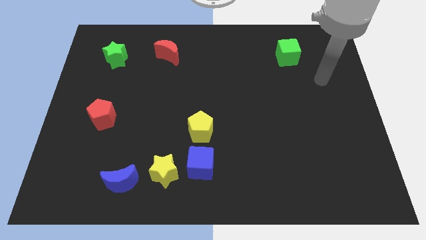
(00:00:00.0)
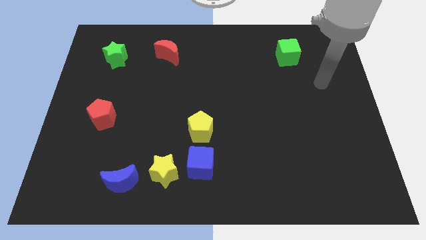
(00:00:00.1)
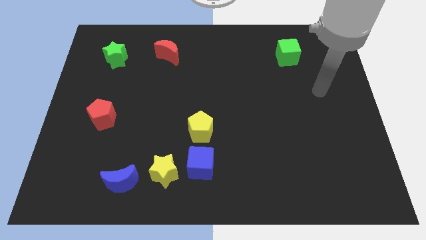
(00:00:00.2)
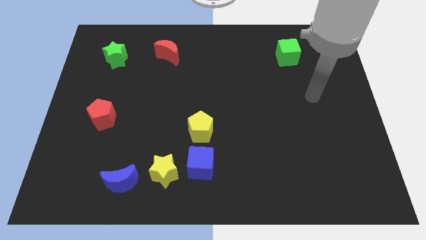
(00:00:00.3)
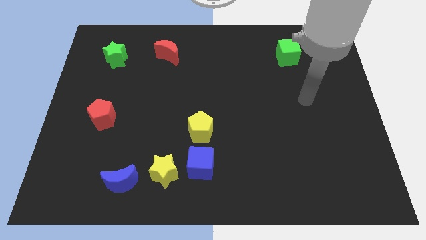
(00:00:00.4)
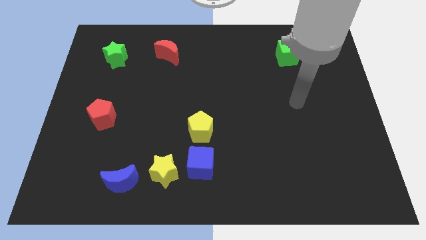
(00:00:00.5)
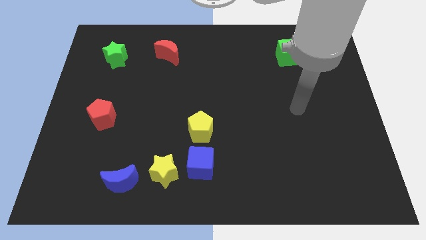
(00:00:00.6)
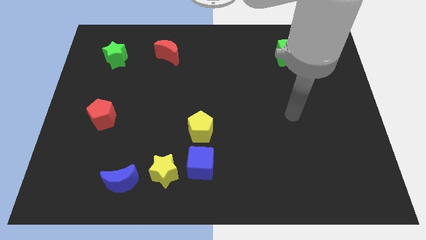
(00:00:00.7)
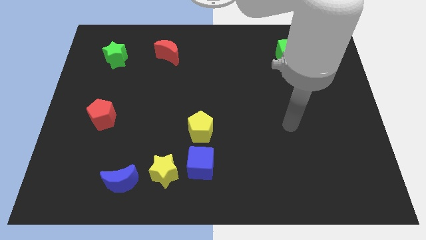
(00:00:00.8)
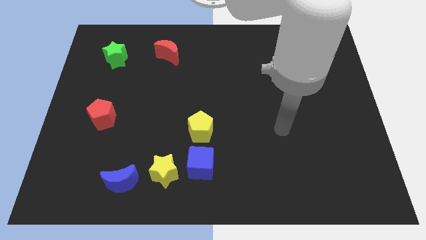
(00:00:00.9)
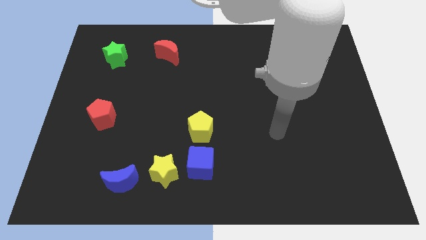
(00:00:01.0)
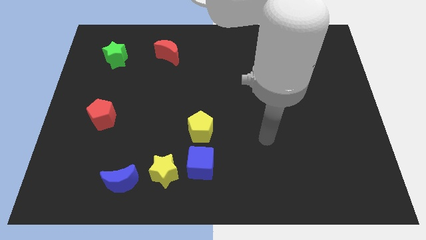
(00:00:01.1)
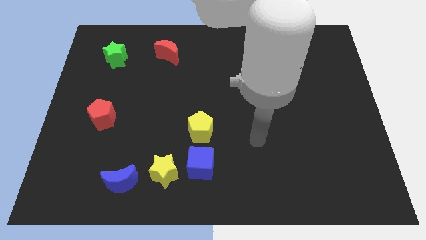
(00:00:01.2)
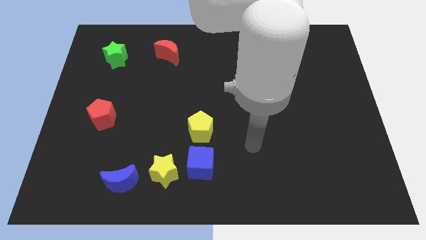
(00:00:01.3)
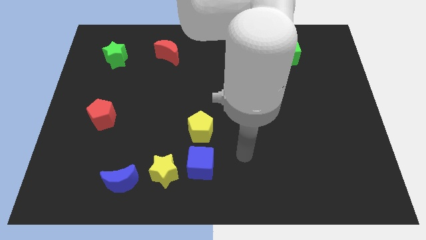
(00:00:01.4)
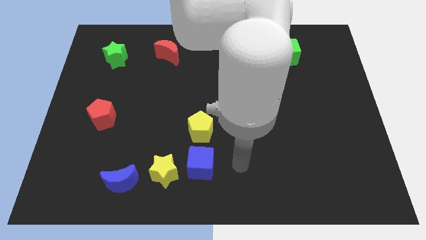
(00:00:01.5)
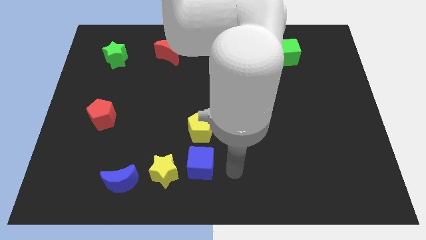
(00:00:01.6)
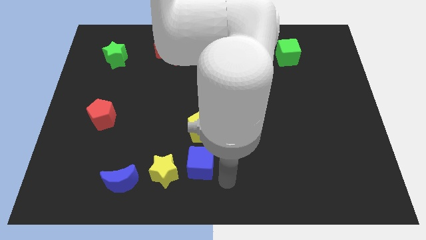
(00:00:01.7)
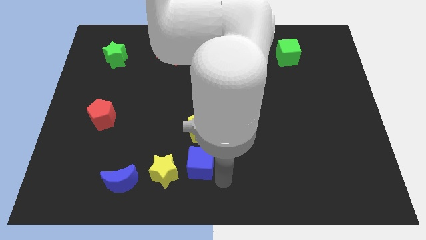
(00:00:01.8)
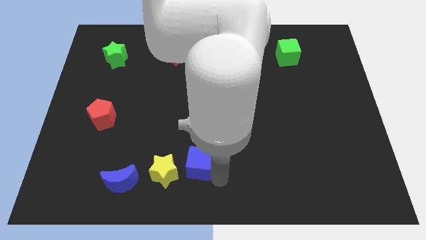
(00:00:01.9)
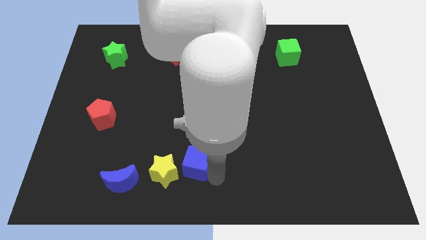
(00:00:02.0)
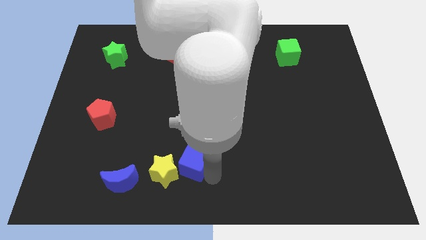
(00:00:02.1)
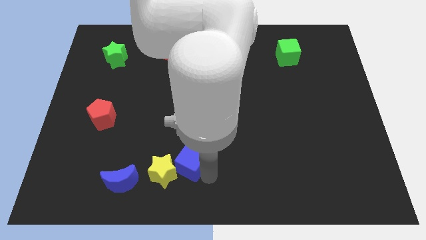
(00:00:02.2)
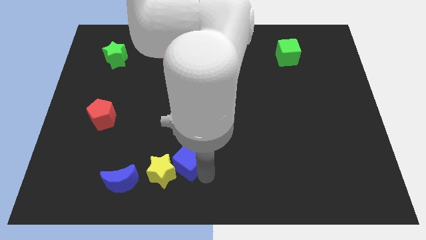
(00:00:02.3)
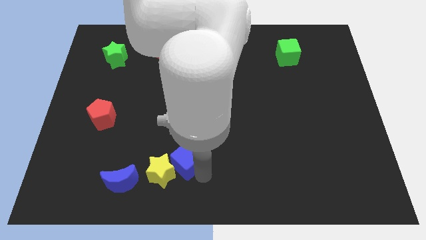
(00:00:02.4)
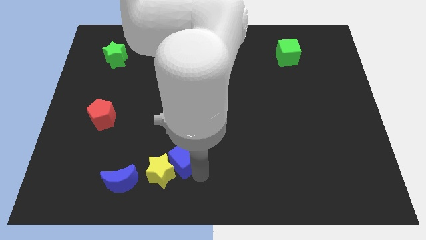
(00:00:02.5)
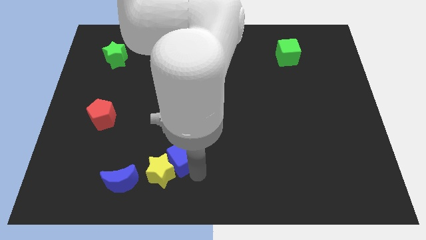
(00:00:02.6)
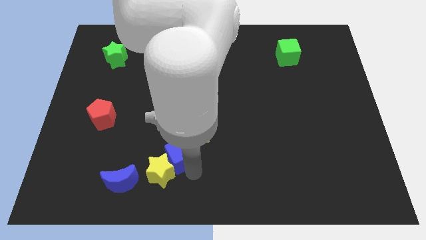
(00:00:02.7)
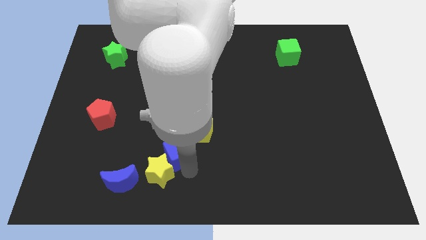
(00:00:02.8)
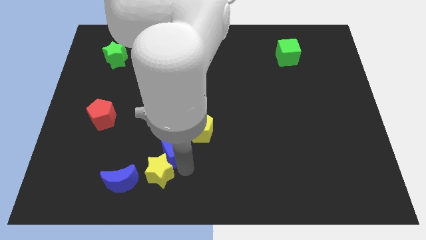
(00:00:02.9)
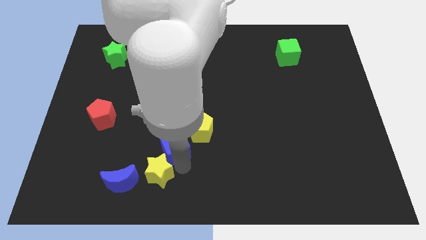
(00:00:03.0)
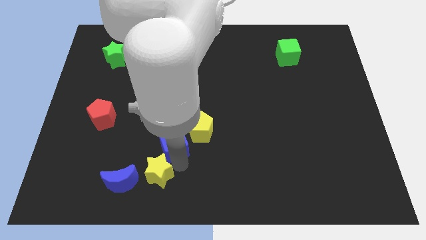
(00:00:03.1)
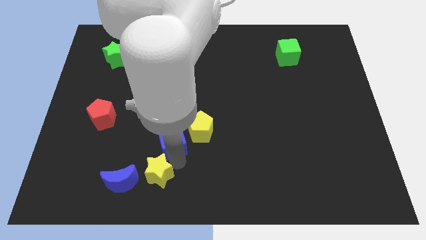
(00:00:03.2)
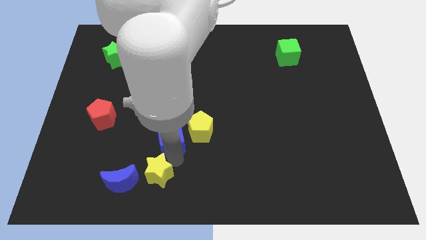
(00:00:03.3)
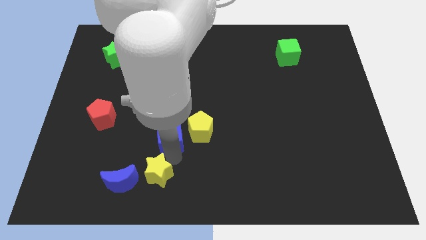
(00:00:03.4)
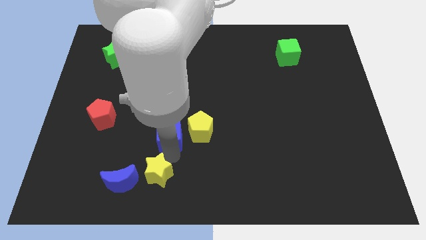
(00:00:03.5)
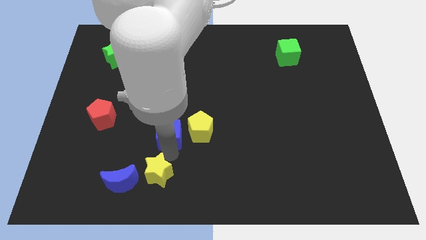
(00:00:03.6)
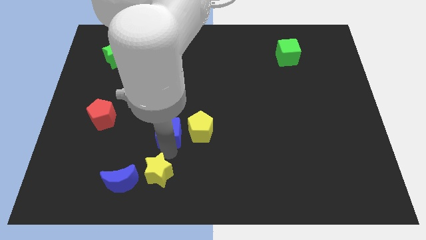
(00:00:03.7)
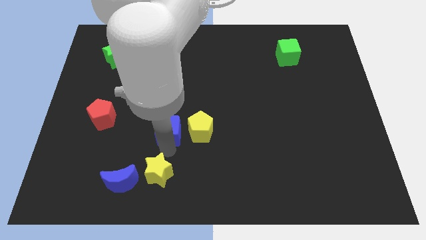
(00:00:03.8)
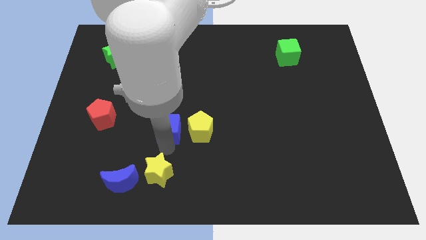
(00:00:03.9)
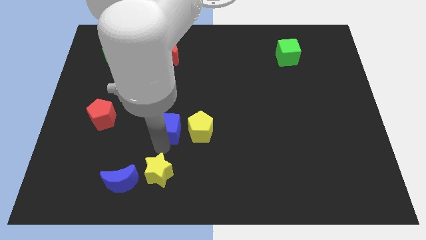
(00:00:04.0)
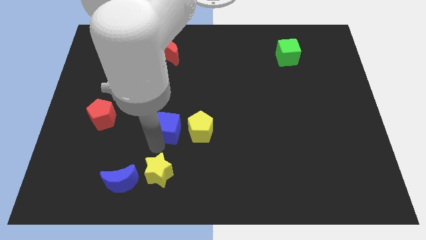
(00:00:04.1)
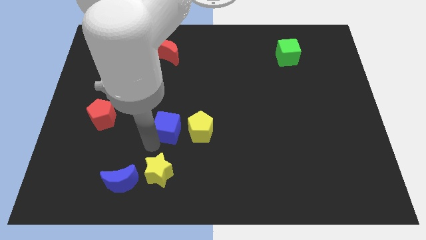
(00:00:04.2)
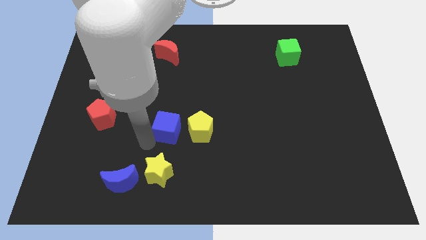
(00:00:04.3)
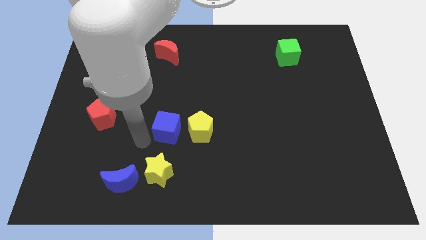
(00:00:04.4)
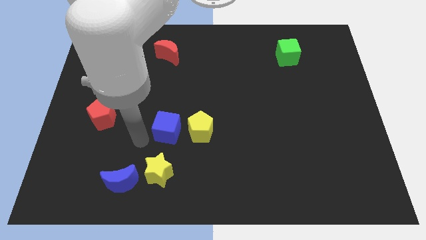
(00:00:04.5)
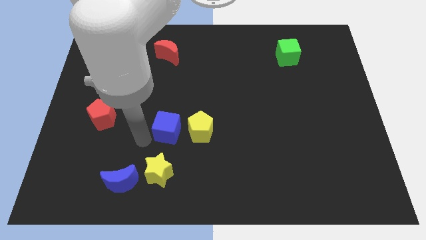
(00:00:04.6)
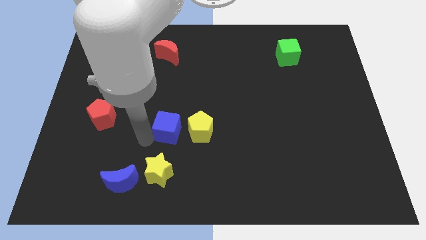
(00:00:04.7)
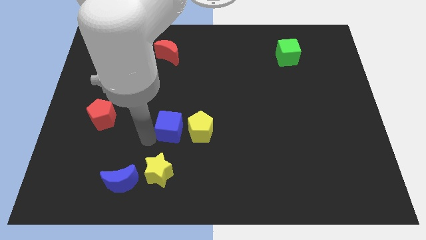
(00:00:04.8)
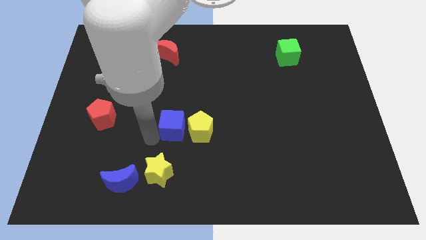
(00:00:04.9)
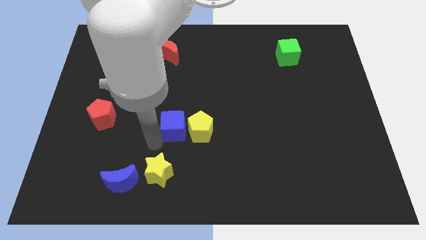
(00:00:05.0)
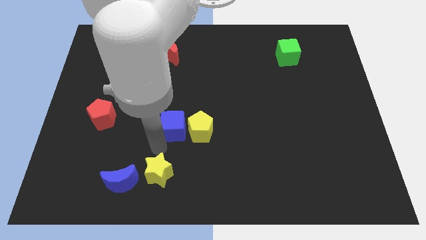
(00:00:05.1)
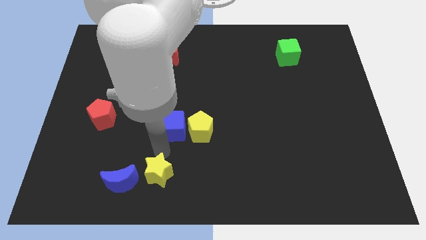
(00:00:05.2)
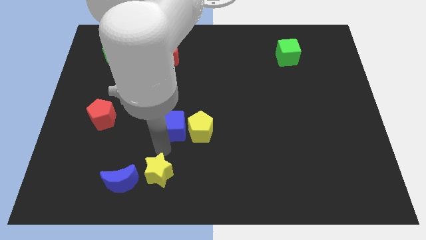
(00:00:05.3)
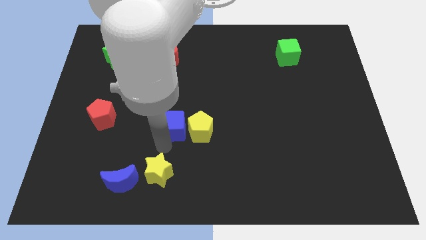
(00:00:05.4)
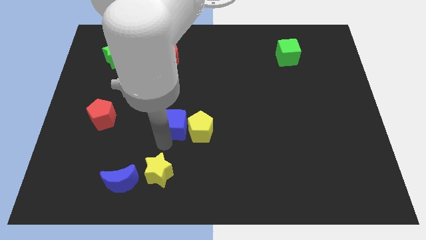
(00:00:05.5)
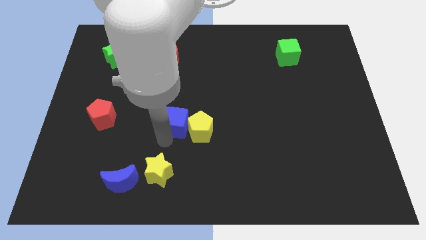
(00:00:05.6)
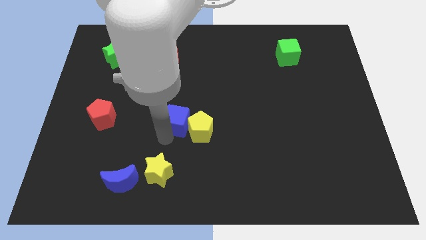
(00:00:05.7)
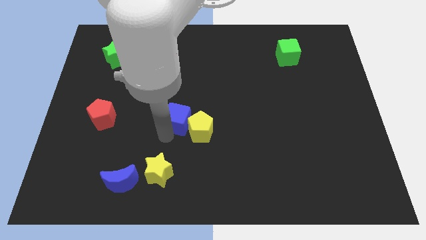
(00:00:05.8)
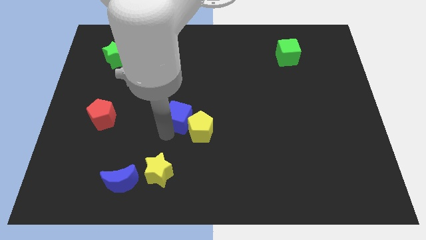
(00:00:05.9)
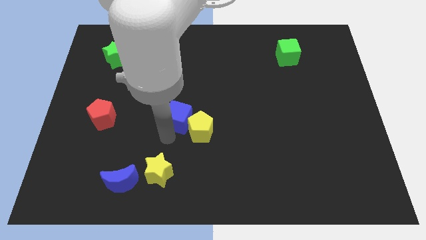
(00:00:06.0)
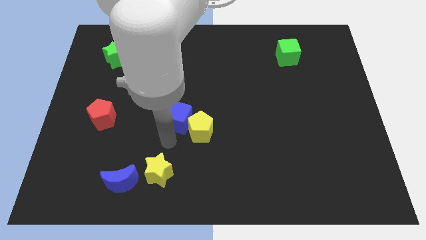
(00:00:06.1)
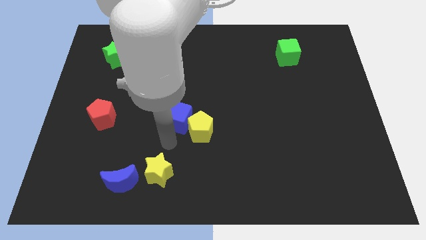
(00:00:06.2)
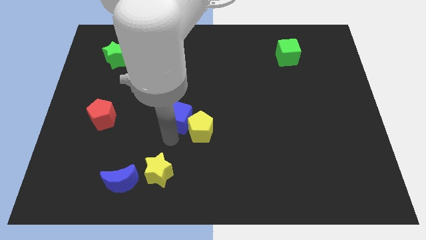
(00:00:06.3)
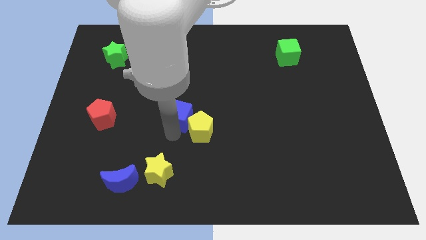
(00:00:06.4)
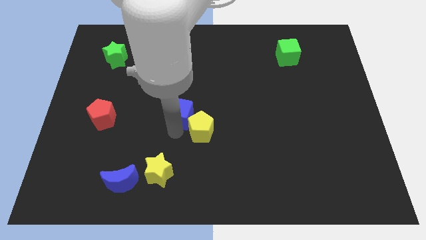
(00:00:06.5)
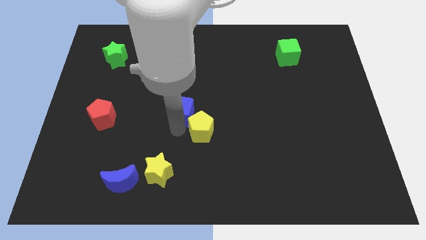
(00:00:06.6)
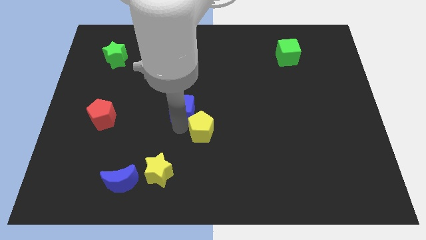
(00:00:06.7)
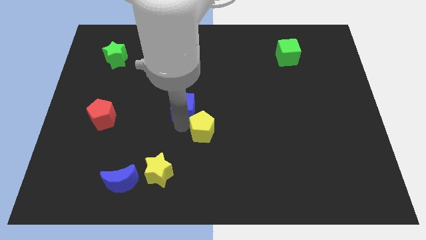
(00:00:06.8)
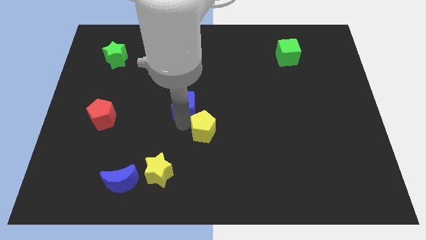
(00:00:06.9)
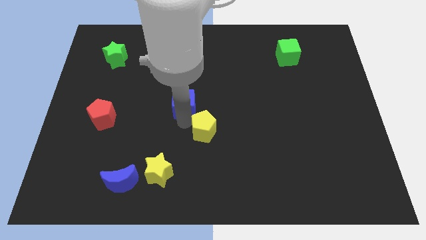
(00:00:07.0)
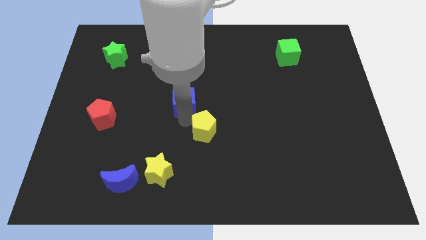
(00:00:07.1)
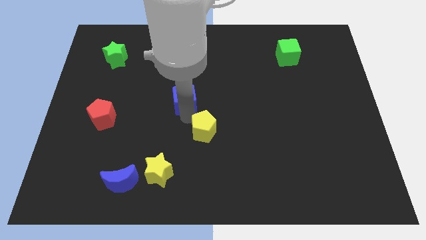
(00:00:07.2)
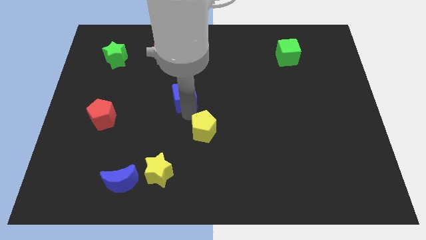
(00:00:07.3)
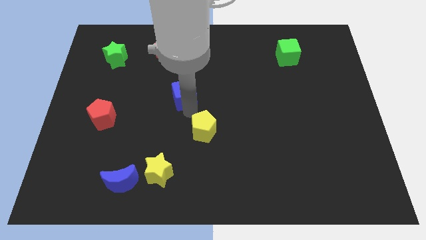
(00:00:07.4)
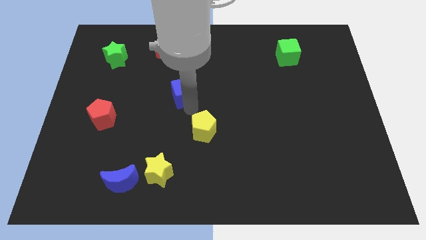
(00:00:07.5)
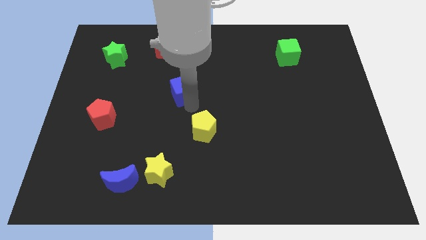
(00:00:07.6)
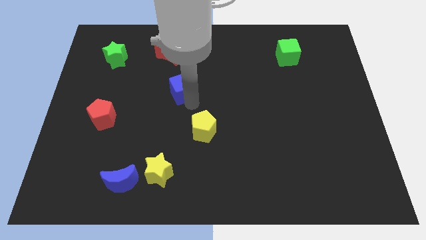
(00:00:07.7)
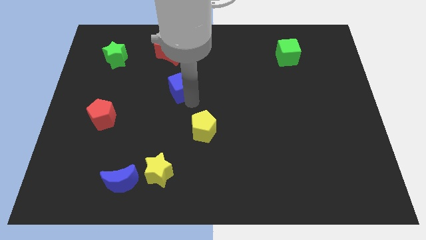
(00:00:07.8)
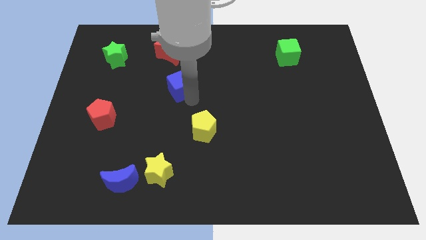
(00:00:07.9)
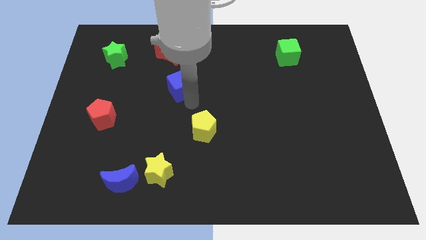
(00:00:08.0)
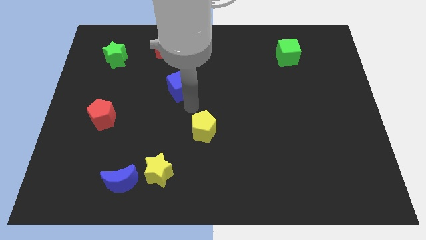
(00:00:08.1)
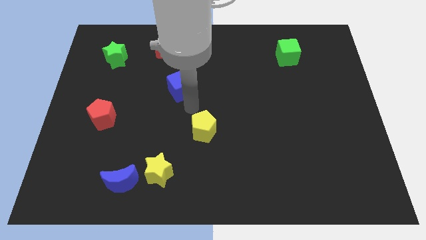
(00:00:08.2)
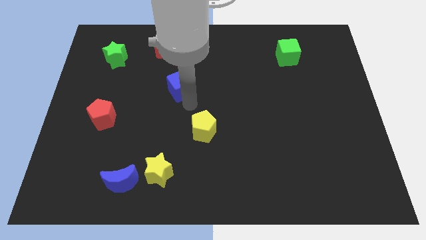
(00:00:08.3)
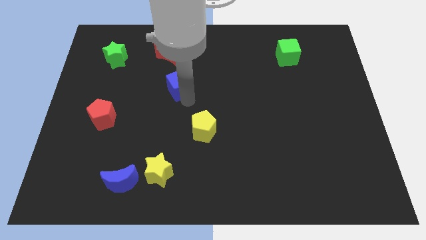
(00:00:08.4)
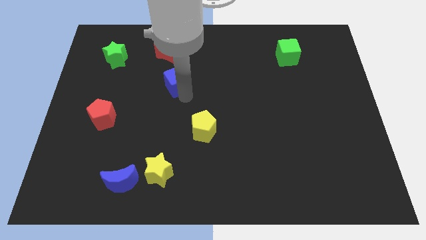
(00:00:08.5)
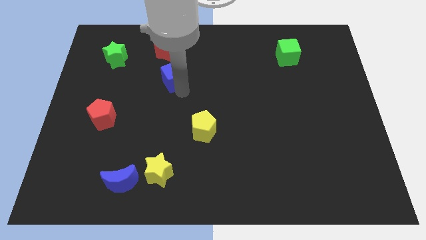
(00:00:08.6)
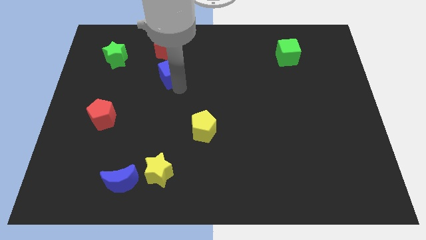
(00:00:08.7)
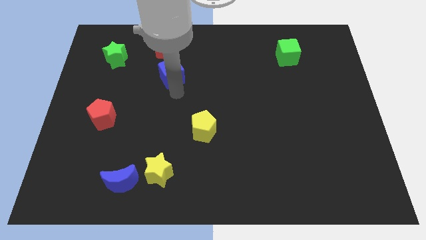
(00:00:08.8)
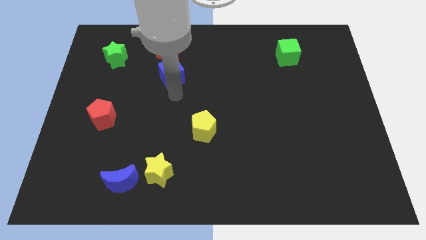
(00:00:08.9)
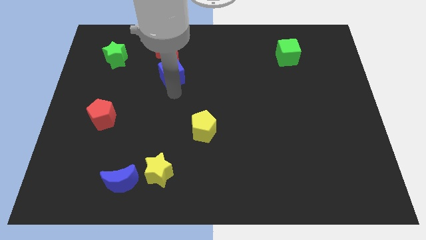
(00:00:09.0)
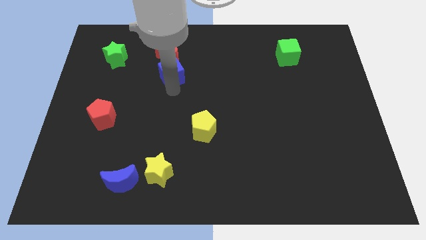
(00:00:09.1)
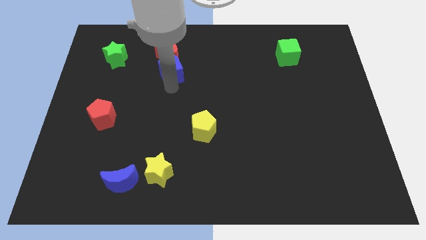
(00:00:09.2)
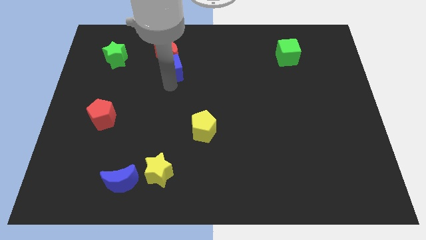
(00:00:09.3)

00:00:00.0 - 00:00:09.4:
push the blue cube towards the red moon
